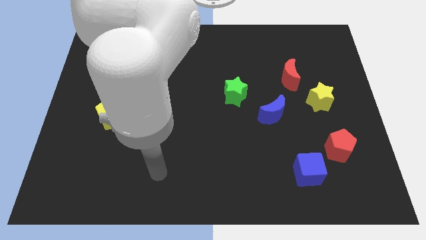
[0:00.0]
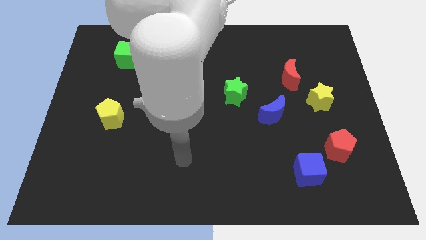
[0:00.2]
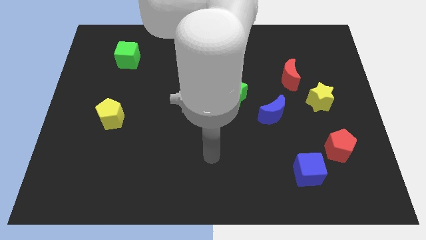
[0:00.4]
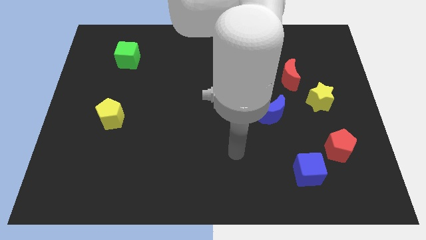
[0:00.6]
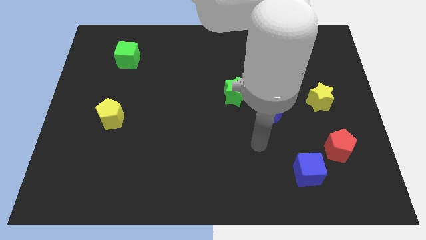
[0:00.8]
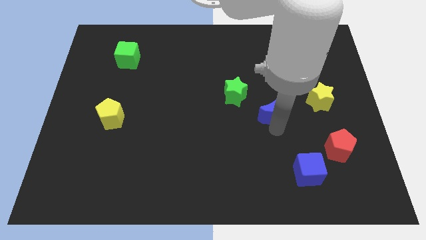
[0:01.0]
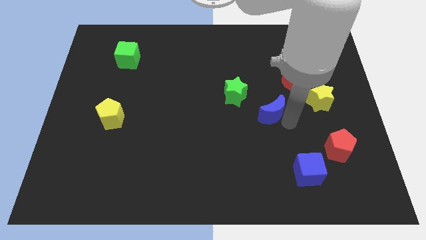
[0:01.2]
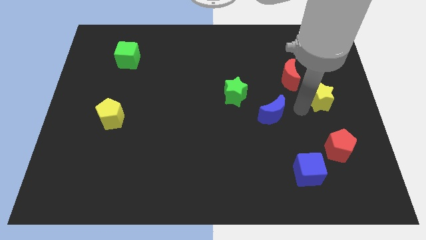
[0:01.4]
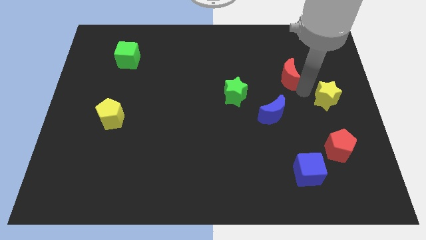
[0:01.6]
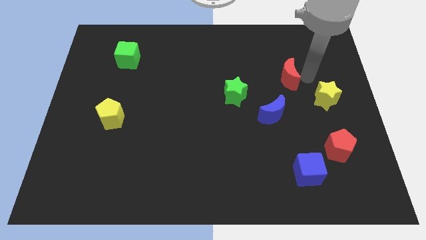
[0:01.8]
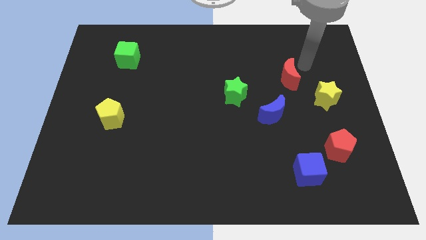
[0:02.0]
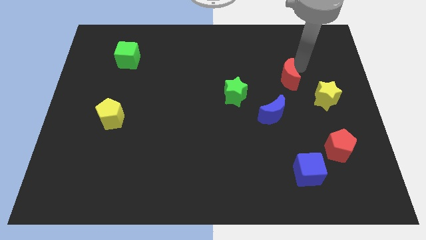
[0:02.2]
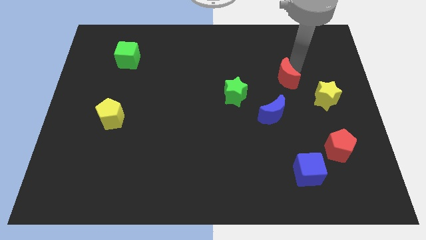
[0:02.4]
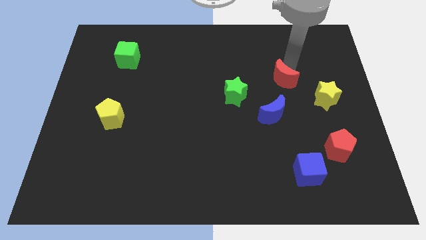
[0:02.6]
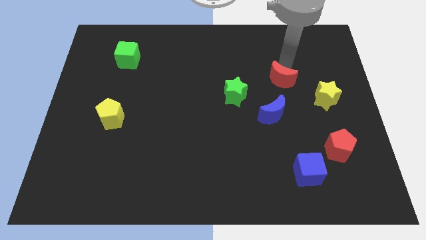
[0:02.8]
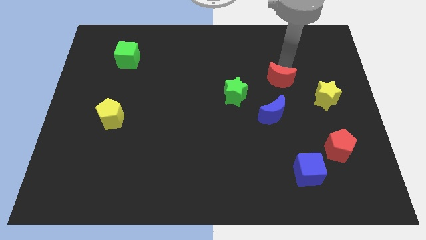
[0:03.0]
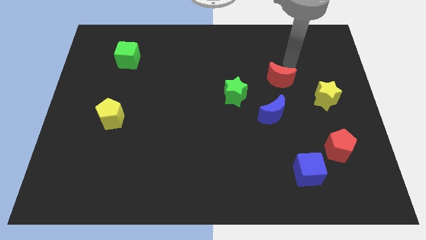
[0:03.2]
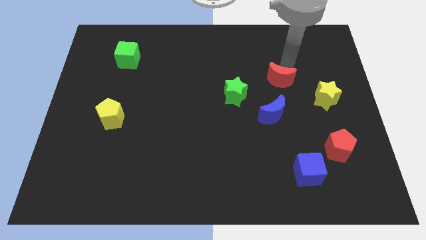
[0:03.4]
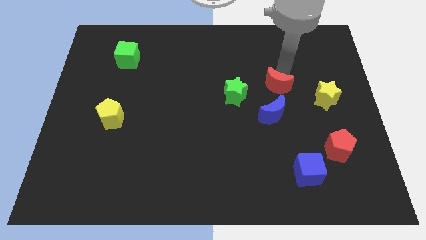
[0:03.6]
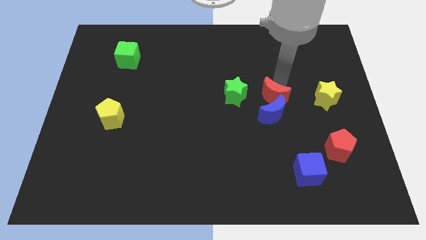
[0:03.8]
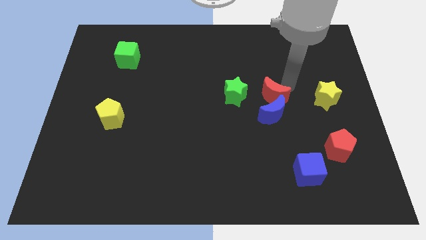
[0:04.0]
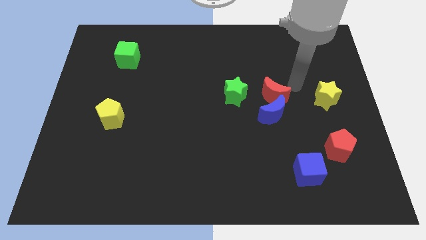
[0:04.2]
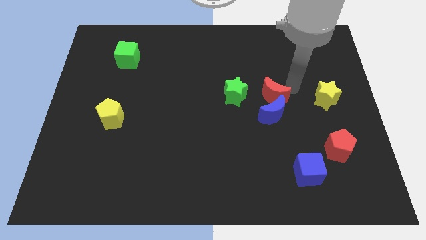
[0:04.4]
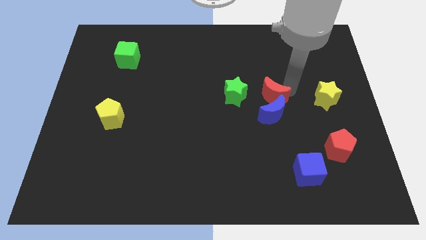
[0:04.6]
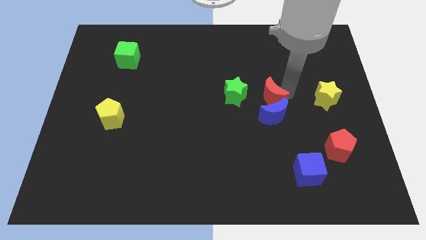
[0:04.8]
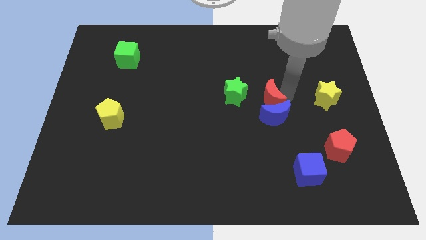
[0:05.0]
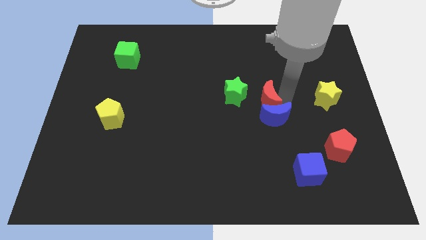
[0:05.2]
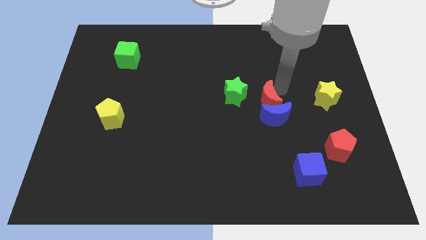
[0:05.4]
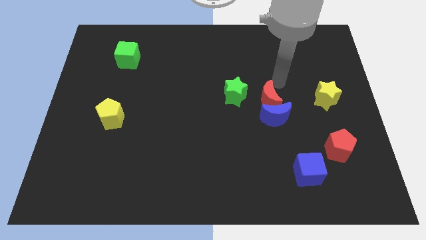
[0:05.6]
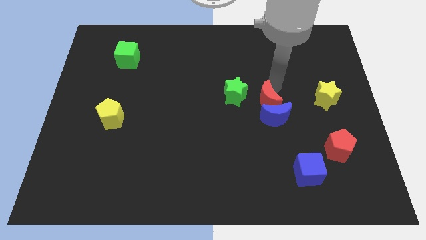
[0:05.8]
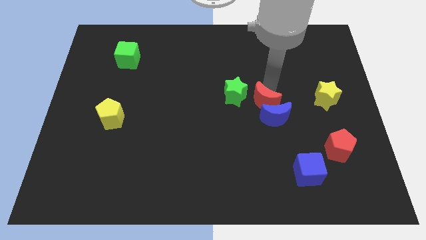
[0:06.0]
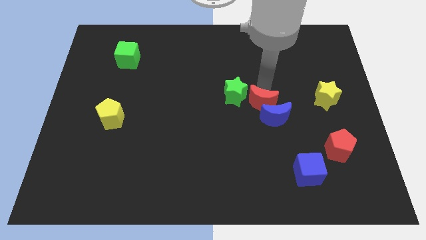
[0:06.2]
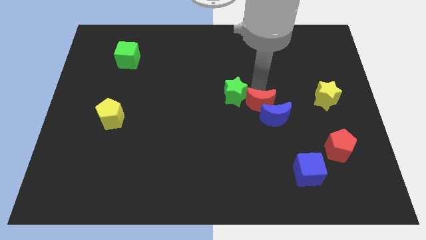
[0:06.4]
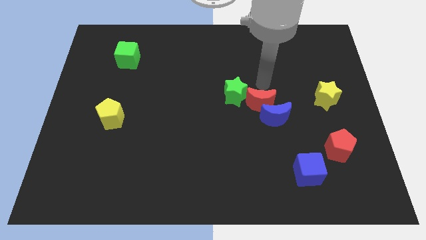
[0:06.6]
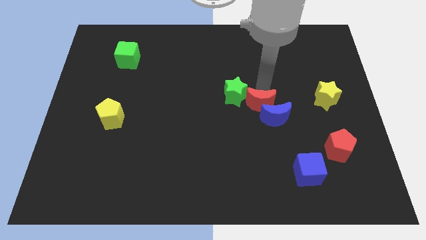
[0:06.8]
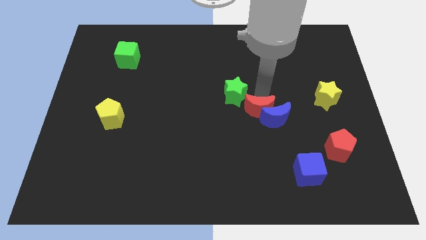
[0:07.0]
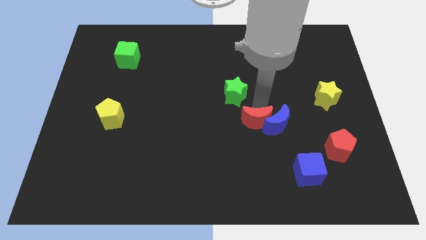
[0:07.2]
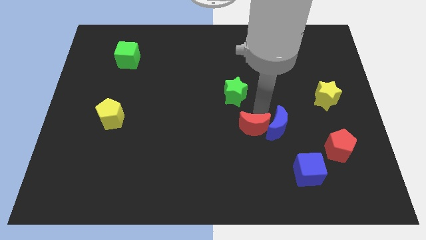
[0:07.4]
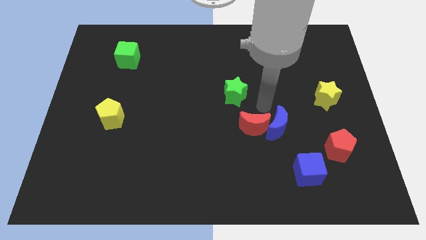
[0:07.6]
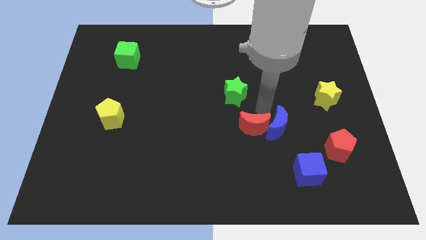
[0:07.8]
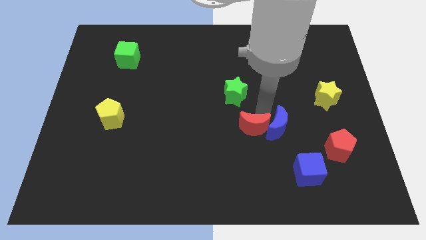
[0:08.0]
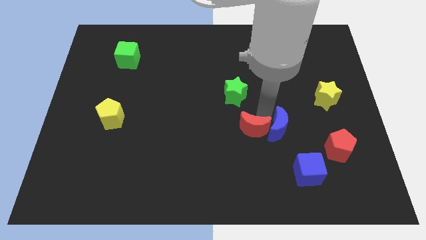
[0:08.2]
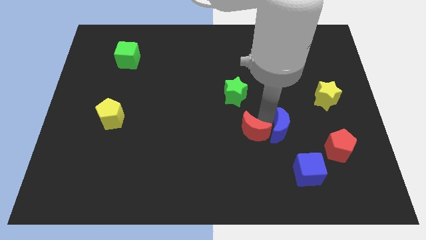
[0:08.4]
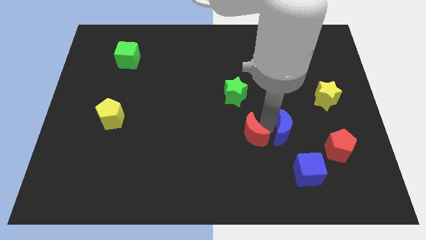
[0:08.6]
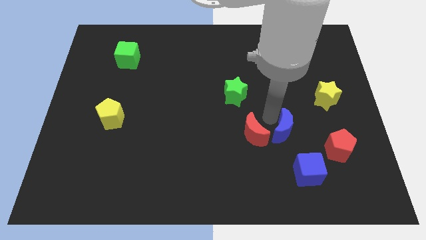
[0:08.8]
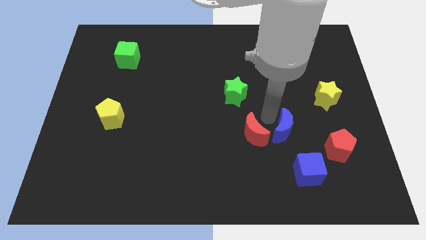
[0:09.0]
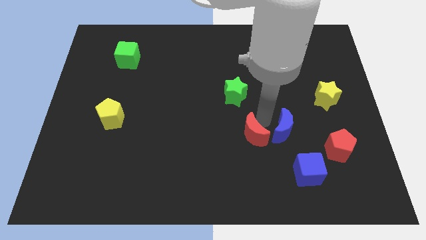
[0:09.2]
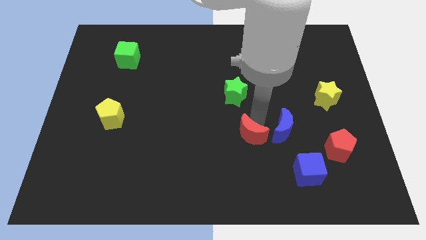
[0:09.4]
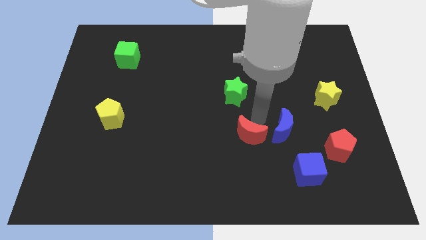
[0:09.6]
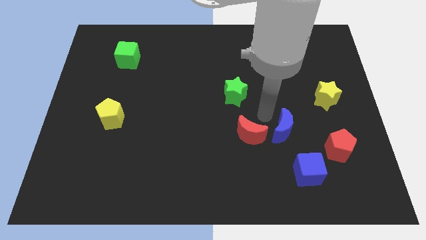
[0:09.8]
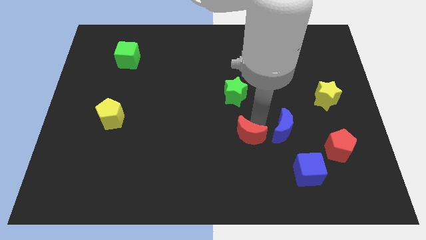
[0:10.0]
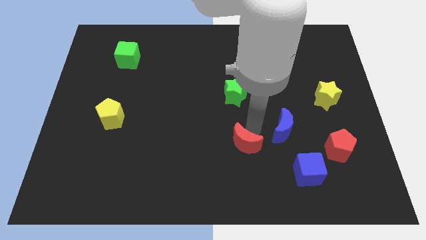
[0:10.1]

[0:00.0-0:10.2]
push the red moon down and then left

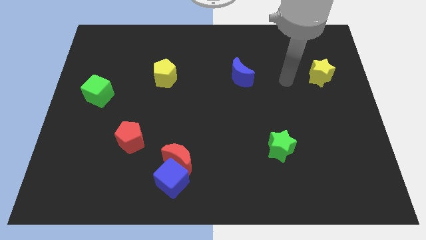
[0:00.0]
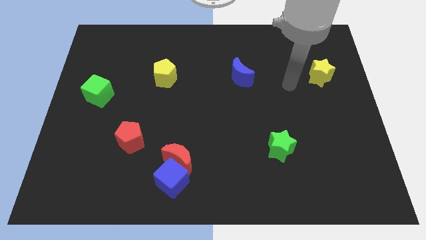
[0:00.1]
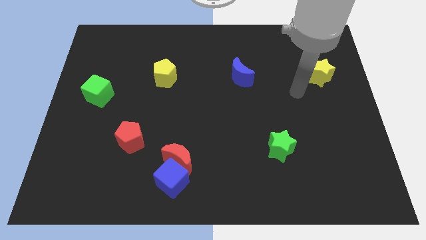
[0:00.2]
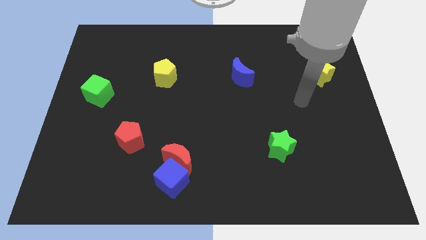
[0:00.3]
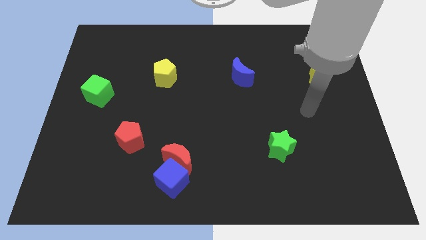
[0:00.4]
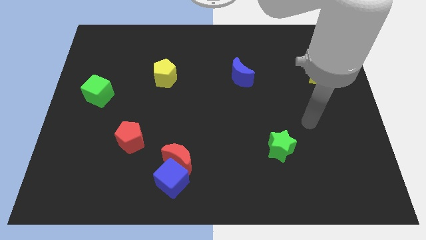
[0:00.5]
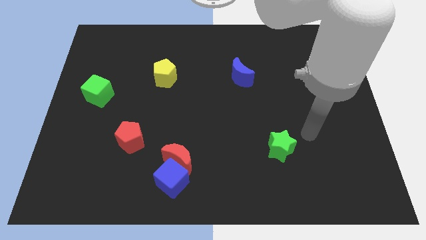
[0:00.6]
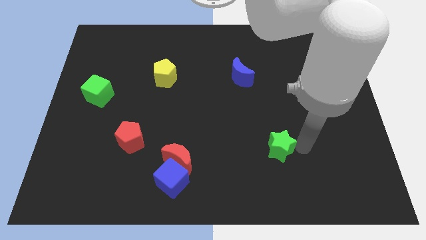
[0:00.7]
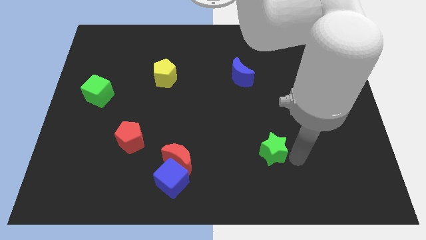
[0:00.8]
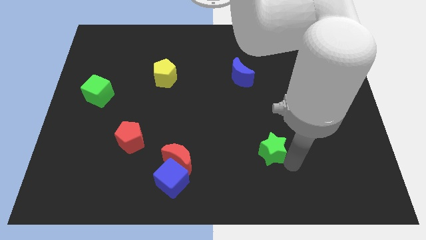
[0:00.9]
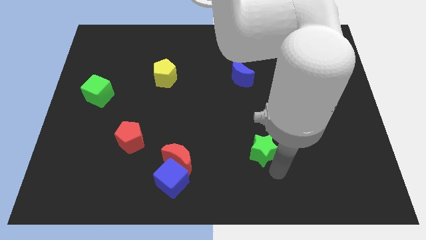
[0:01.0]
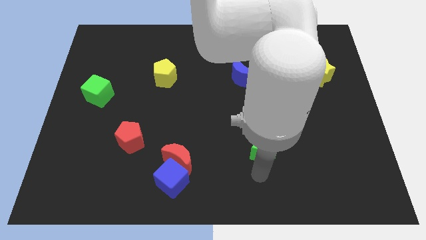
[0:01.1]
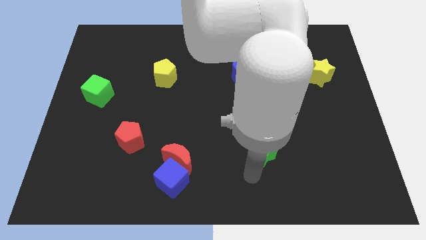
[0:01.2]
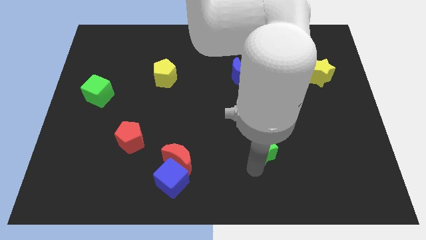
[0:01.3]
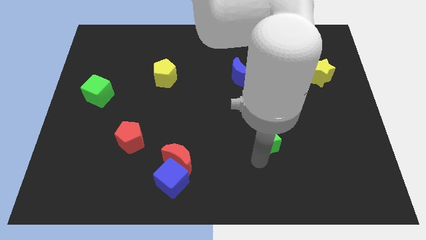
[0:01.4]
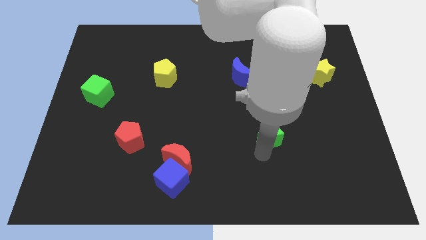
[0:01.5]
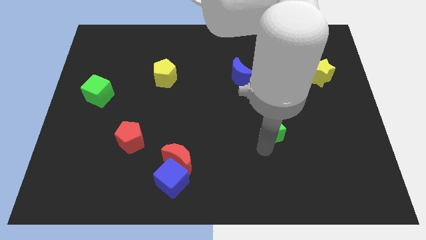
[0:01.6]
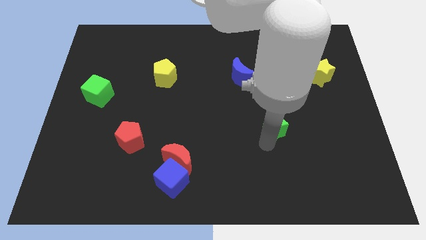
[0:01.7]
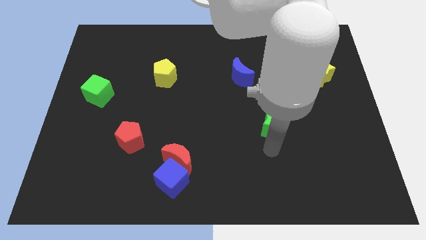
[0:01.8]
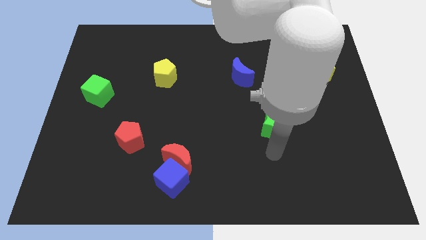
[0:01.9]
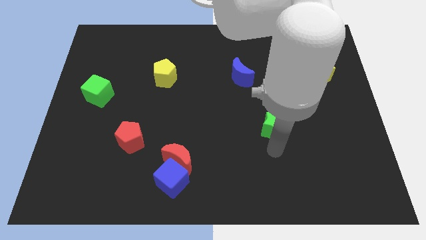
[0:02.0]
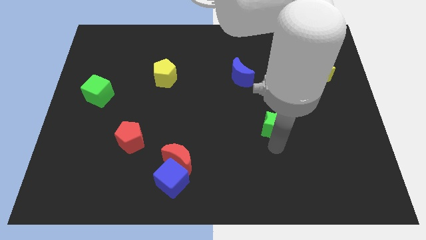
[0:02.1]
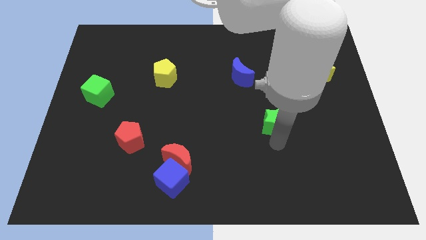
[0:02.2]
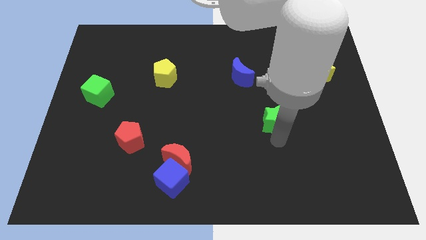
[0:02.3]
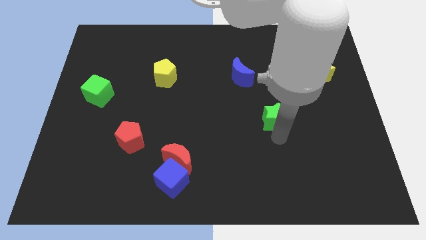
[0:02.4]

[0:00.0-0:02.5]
move the green star up somewhat

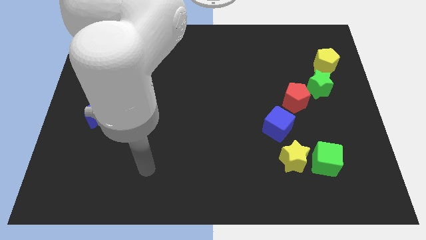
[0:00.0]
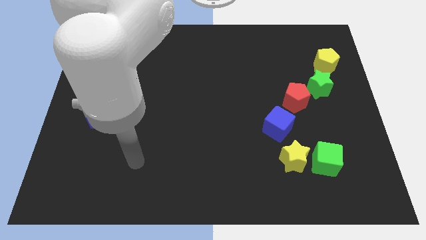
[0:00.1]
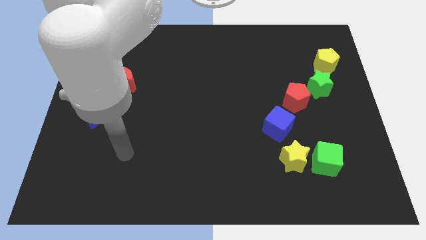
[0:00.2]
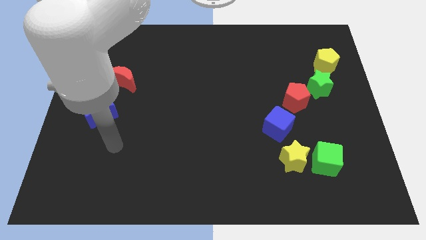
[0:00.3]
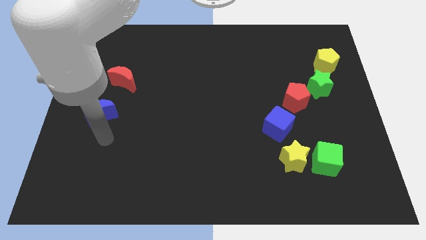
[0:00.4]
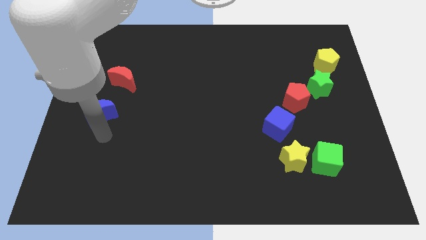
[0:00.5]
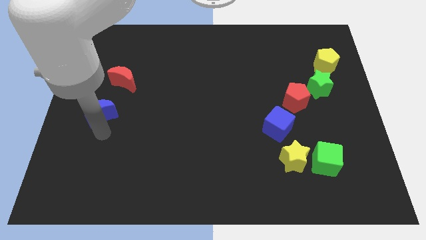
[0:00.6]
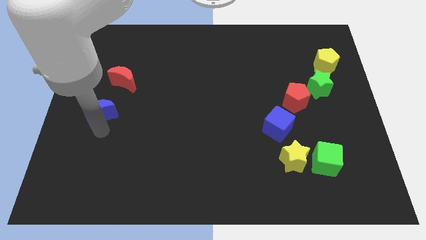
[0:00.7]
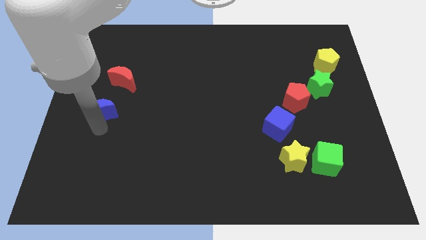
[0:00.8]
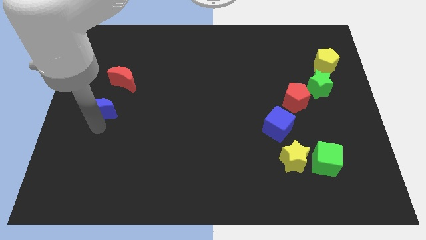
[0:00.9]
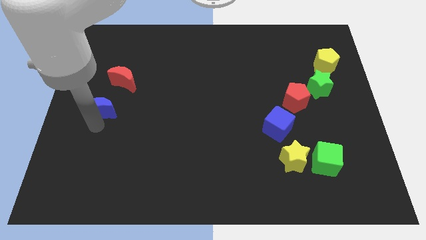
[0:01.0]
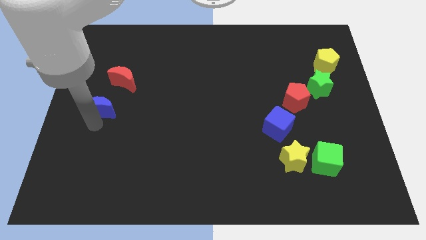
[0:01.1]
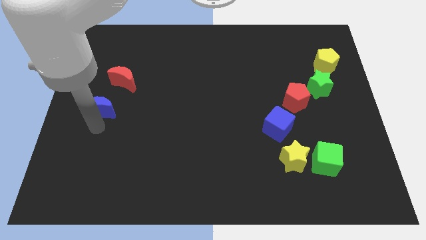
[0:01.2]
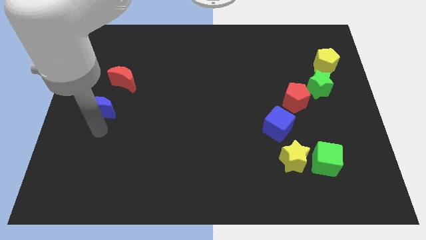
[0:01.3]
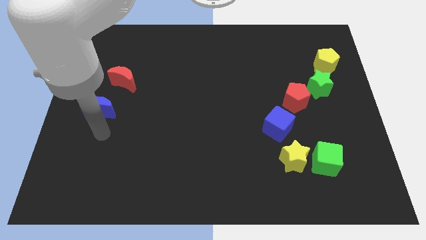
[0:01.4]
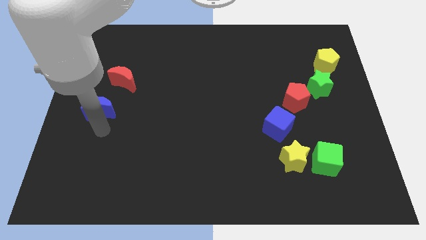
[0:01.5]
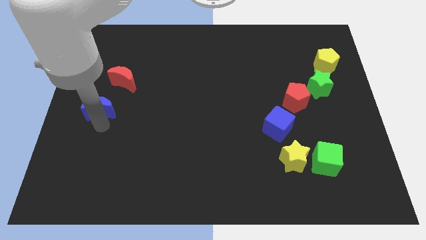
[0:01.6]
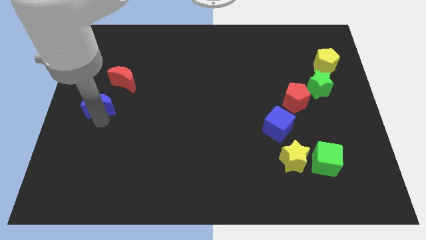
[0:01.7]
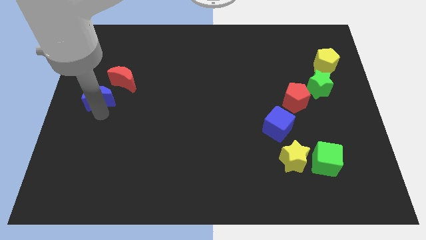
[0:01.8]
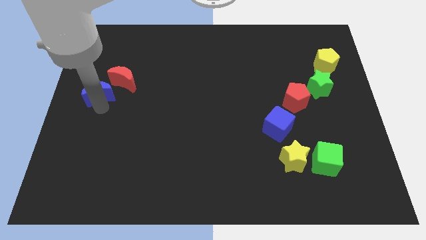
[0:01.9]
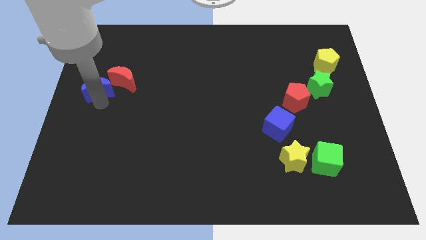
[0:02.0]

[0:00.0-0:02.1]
slightly move the blue moon upwards
